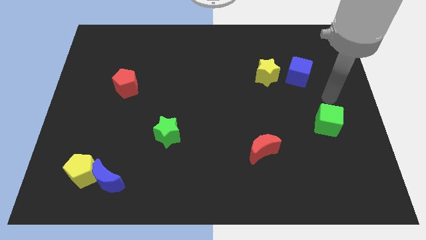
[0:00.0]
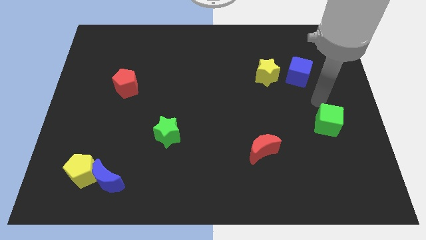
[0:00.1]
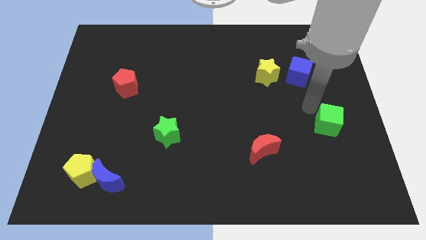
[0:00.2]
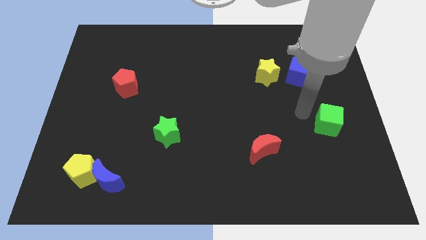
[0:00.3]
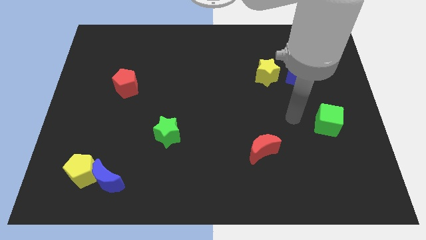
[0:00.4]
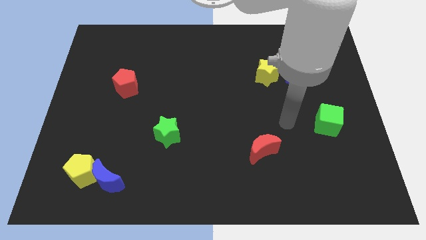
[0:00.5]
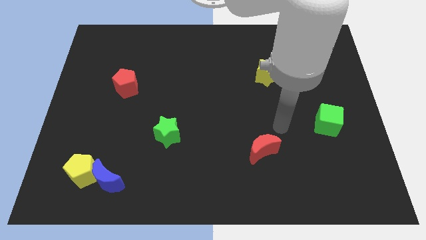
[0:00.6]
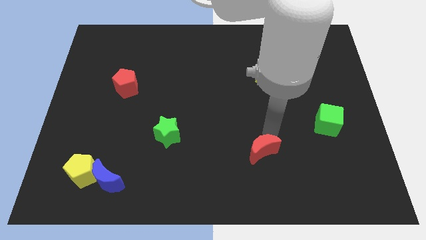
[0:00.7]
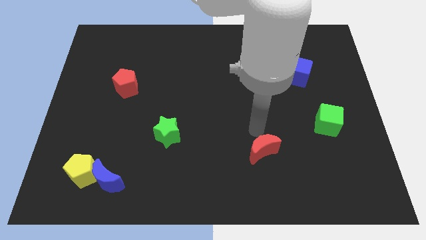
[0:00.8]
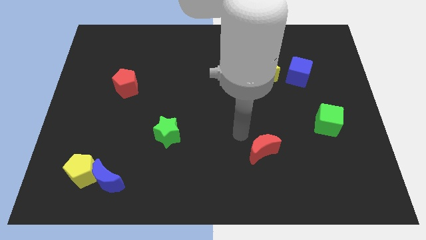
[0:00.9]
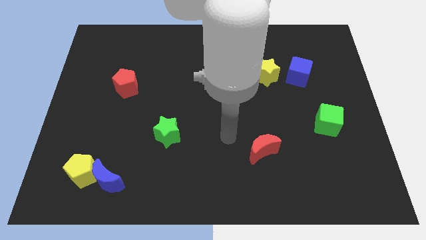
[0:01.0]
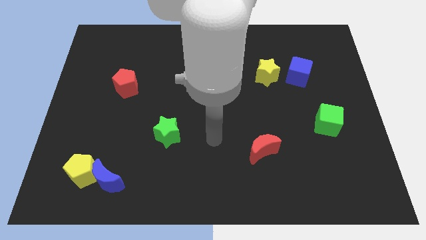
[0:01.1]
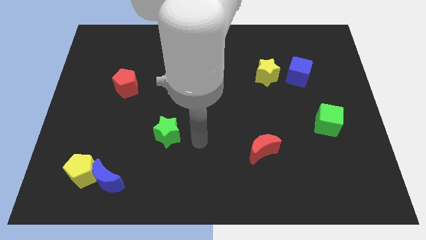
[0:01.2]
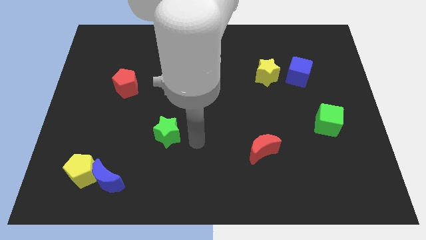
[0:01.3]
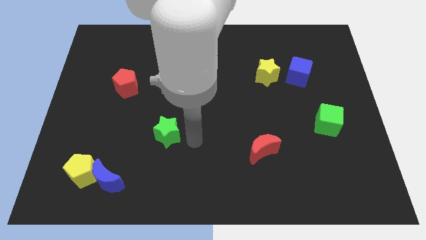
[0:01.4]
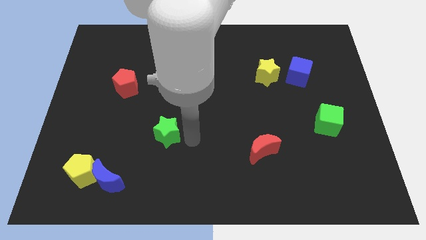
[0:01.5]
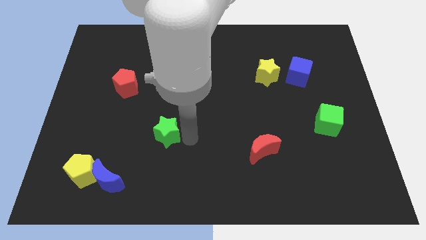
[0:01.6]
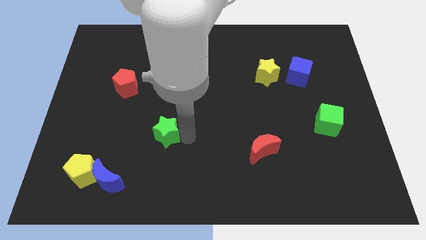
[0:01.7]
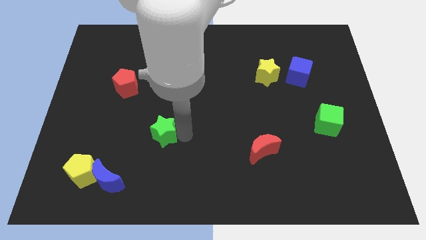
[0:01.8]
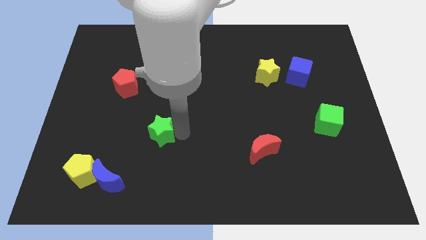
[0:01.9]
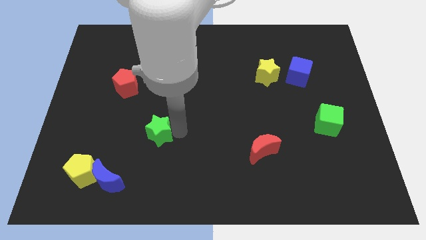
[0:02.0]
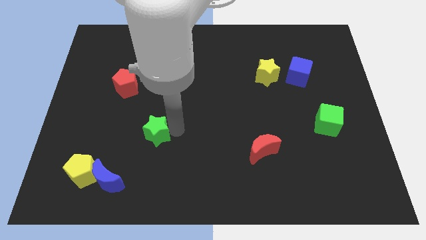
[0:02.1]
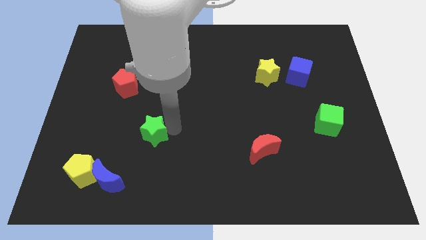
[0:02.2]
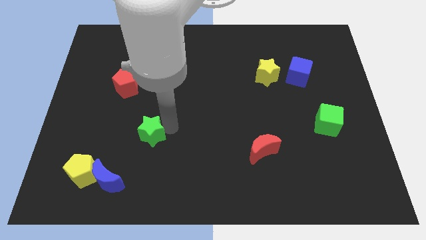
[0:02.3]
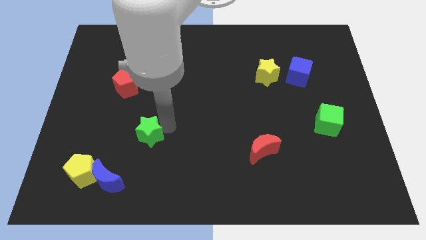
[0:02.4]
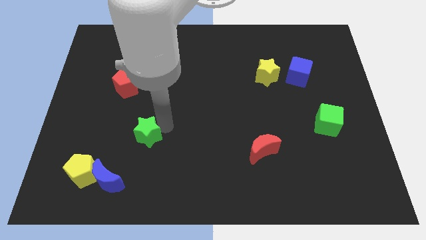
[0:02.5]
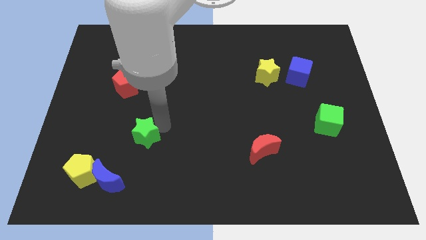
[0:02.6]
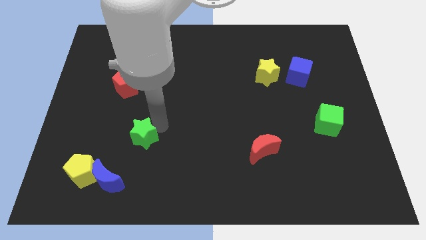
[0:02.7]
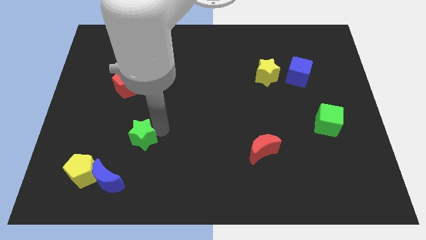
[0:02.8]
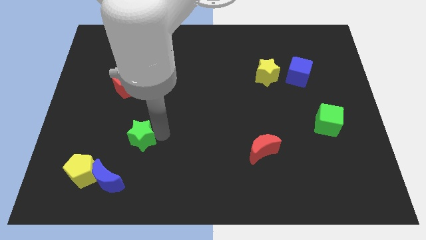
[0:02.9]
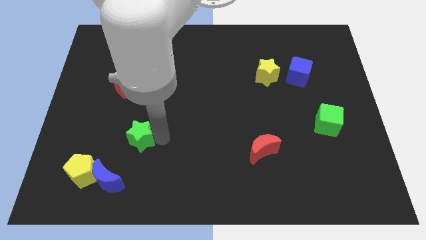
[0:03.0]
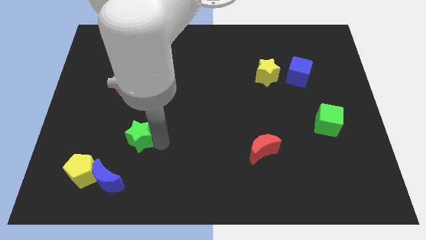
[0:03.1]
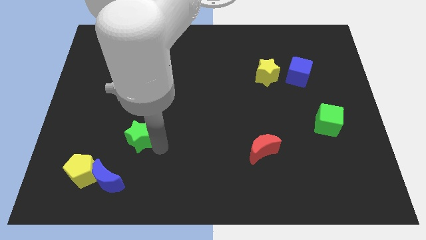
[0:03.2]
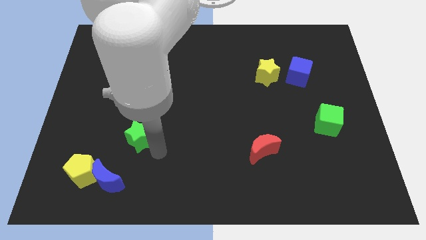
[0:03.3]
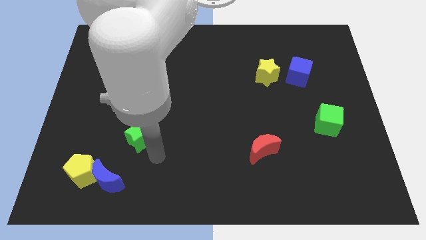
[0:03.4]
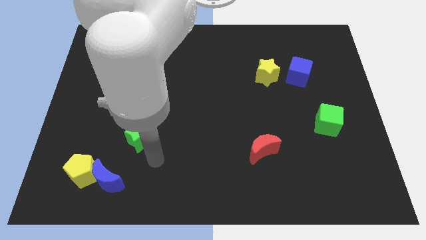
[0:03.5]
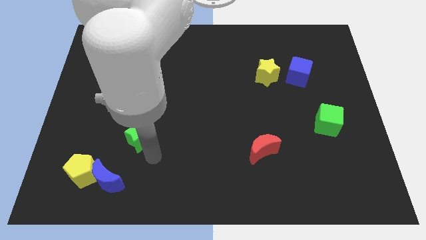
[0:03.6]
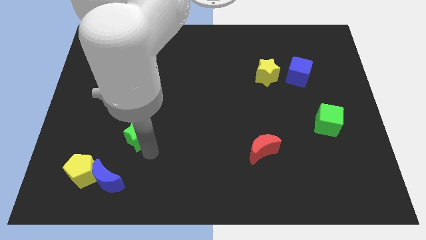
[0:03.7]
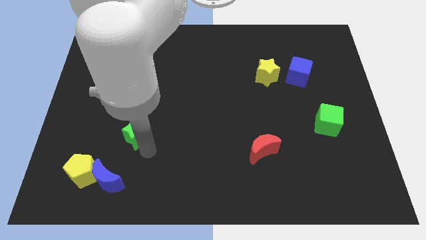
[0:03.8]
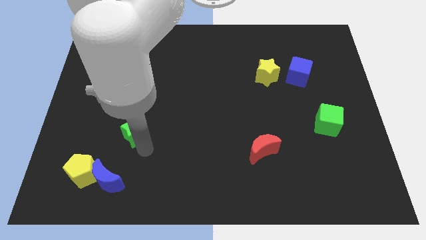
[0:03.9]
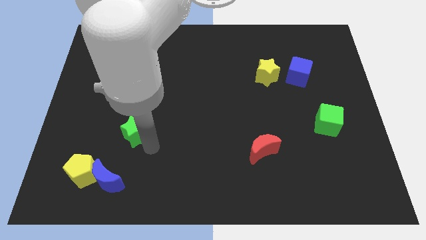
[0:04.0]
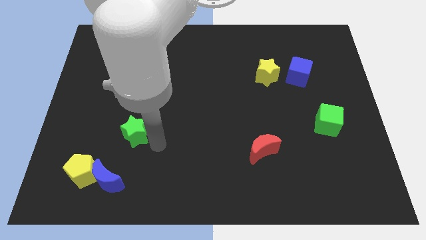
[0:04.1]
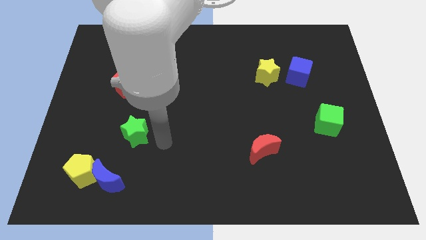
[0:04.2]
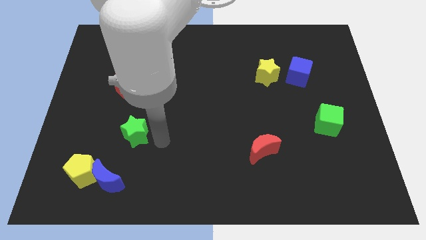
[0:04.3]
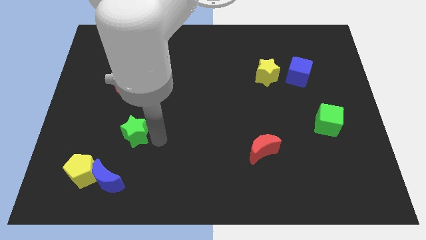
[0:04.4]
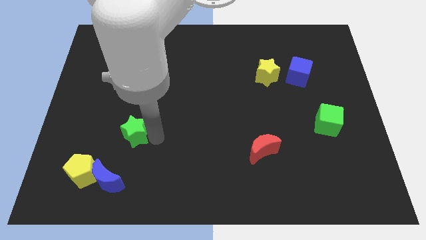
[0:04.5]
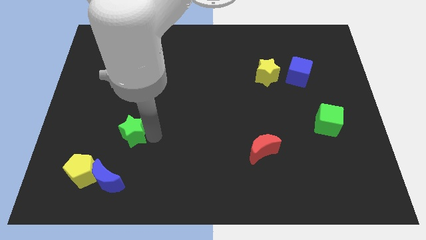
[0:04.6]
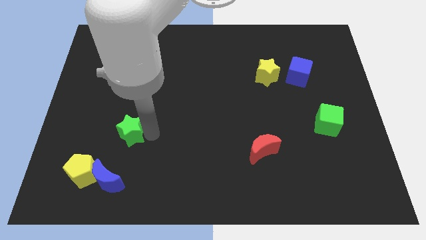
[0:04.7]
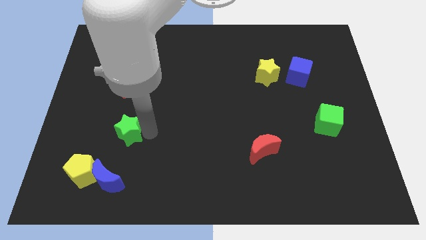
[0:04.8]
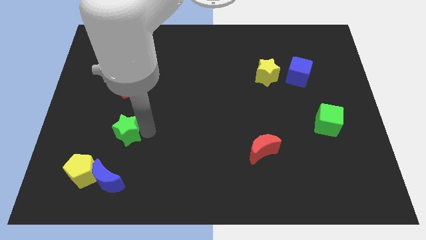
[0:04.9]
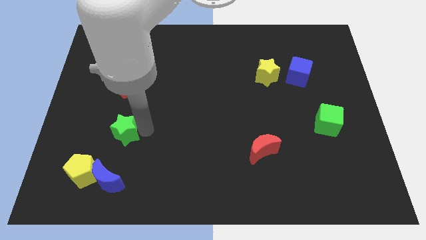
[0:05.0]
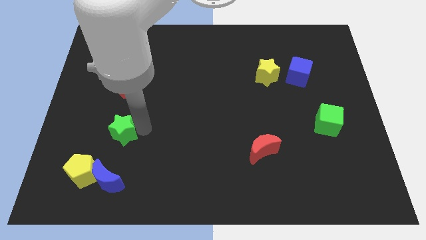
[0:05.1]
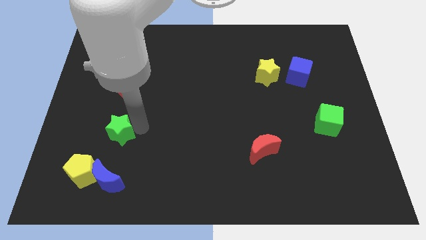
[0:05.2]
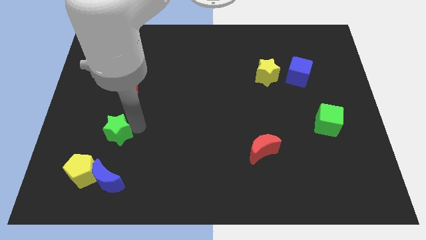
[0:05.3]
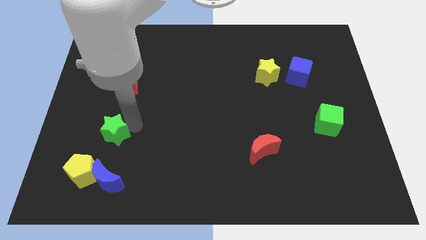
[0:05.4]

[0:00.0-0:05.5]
push the green star to the top of the yellow pentagon

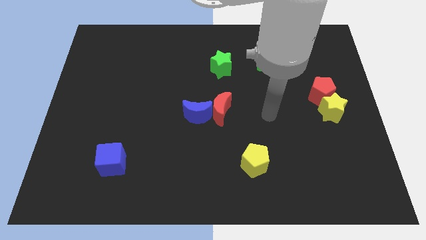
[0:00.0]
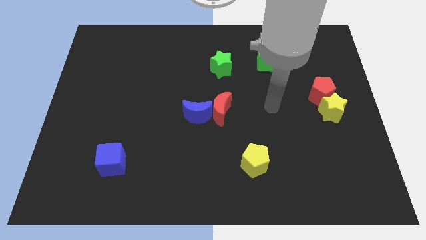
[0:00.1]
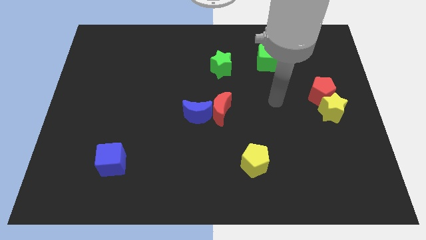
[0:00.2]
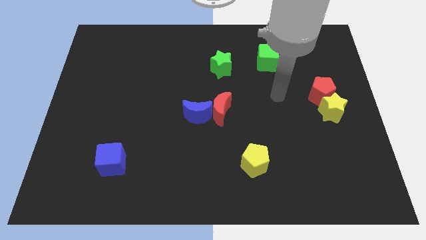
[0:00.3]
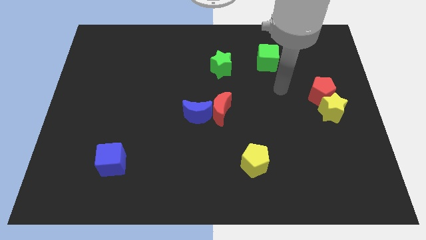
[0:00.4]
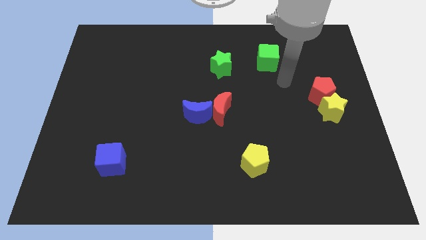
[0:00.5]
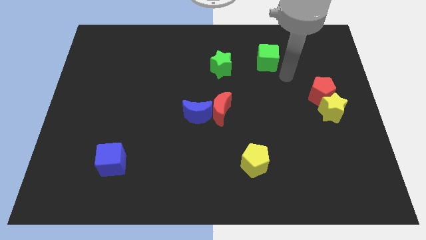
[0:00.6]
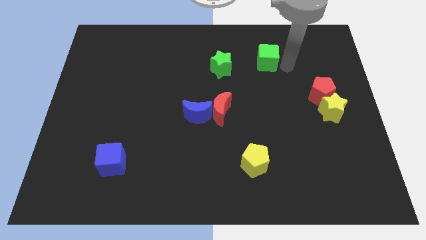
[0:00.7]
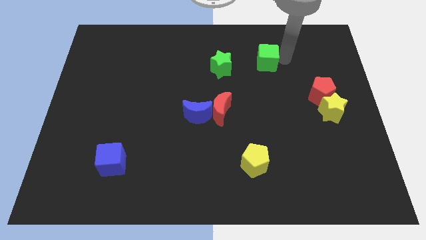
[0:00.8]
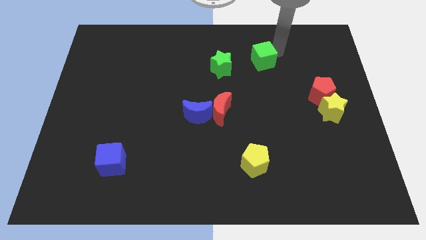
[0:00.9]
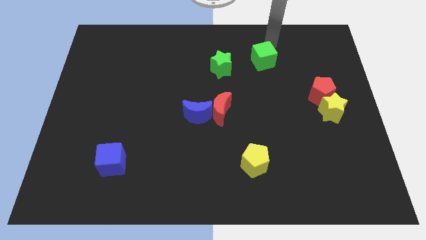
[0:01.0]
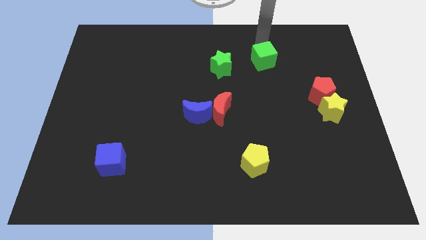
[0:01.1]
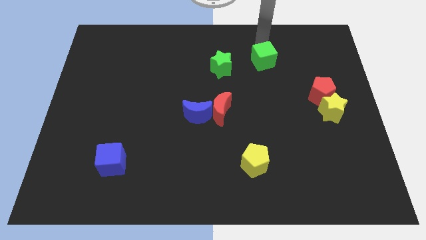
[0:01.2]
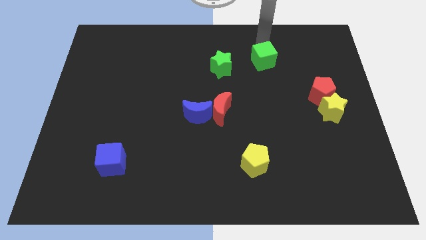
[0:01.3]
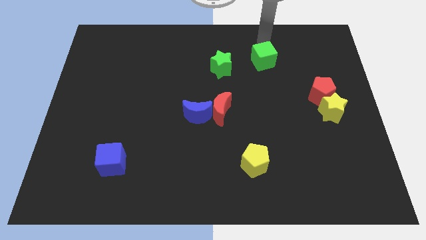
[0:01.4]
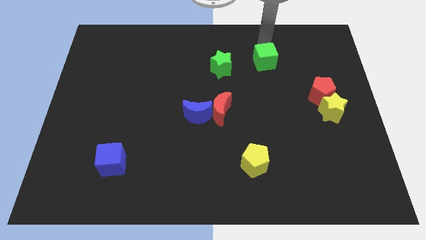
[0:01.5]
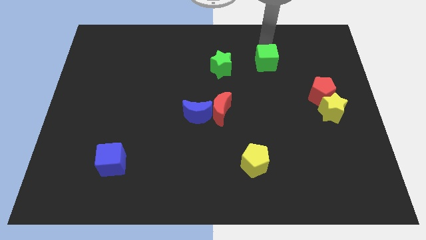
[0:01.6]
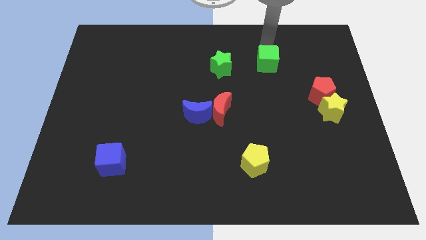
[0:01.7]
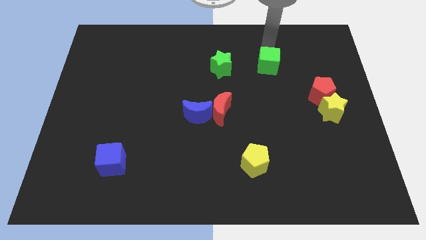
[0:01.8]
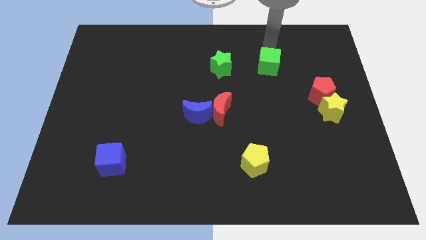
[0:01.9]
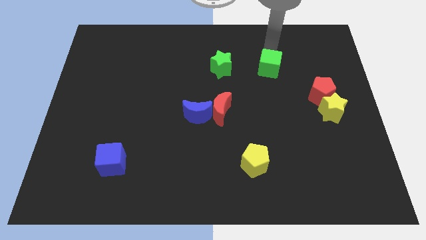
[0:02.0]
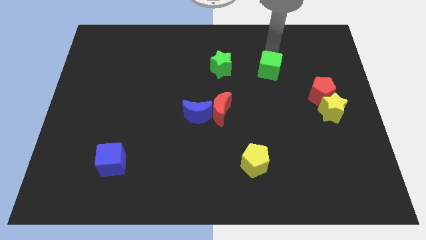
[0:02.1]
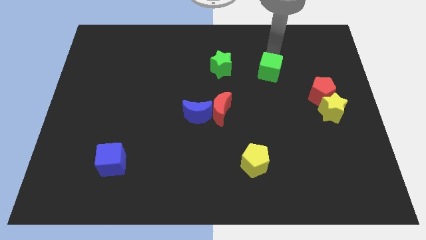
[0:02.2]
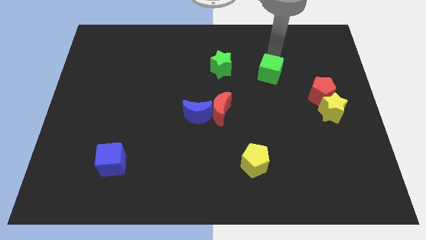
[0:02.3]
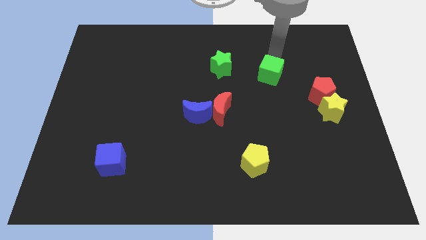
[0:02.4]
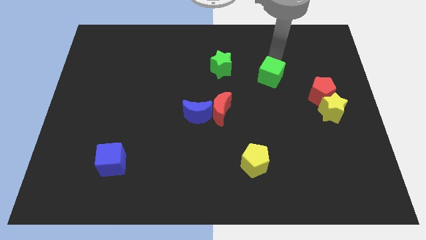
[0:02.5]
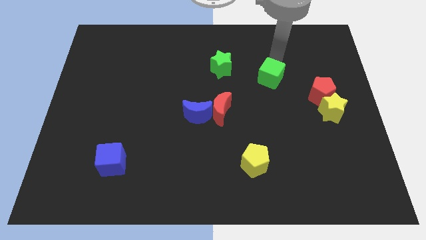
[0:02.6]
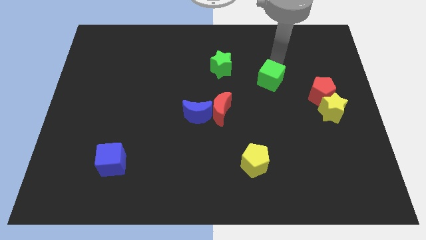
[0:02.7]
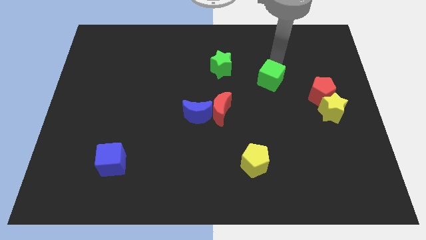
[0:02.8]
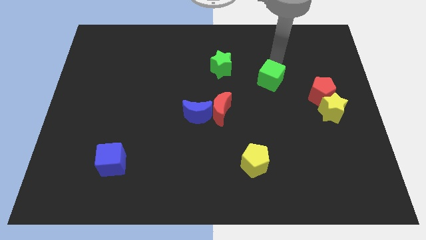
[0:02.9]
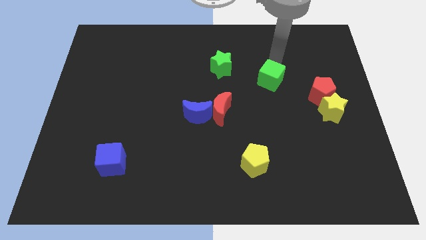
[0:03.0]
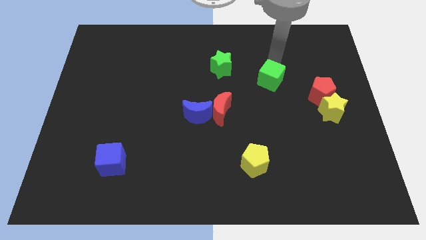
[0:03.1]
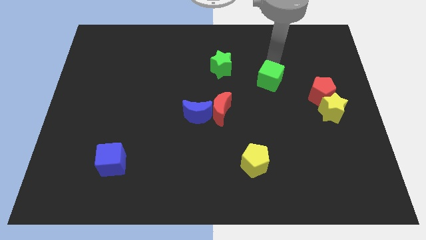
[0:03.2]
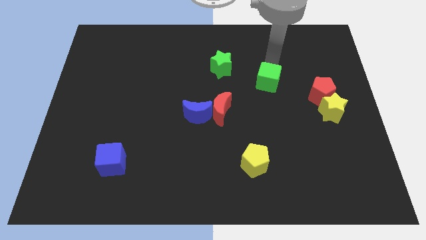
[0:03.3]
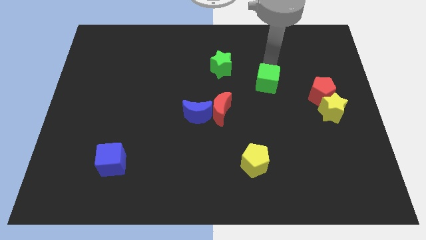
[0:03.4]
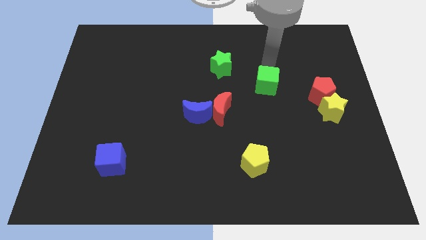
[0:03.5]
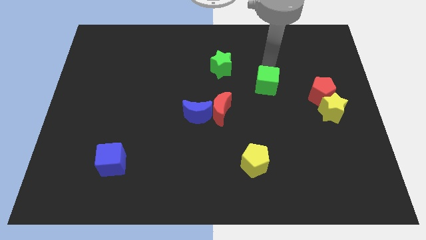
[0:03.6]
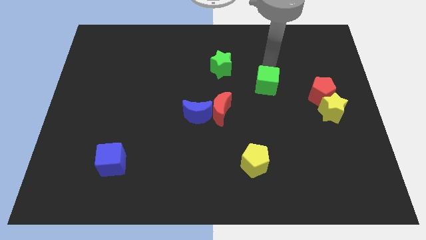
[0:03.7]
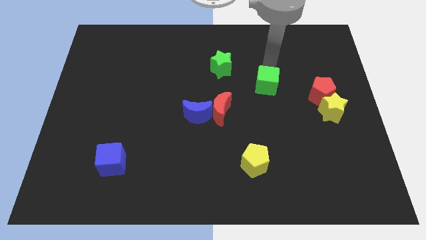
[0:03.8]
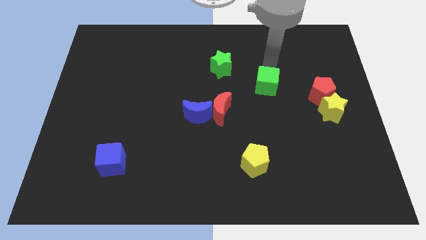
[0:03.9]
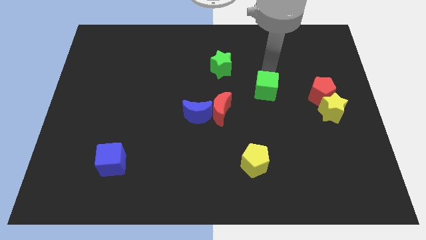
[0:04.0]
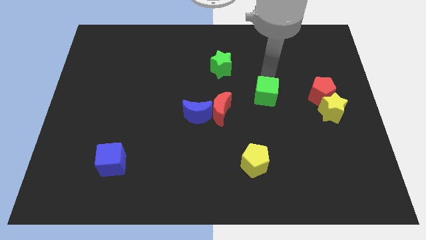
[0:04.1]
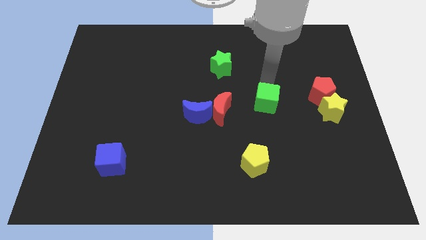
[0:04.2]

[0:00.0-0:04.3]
move the green cube just right of the red moon
